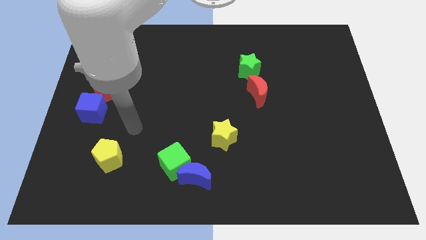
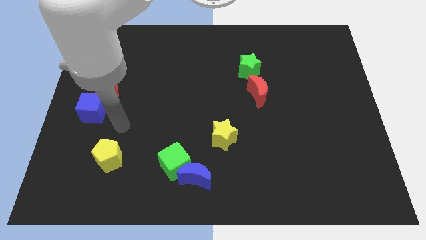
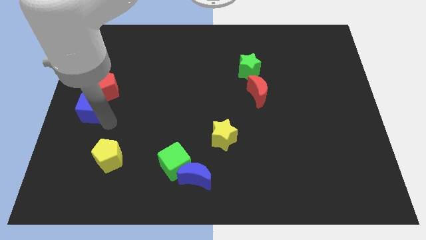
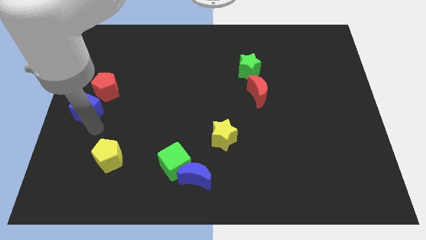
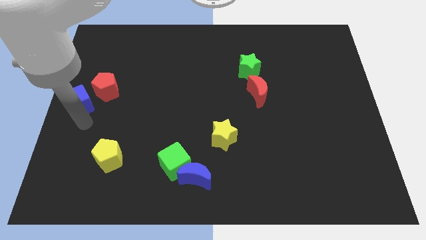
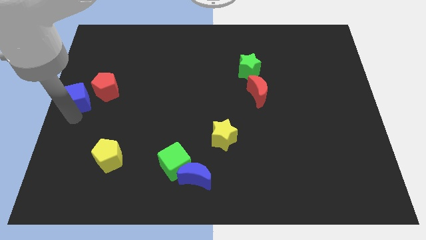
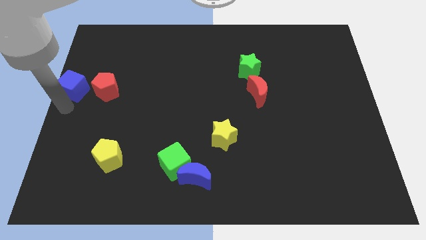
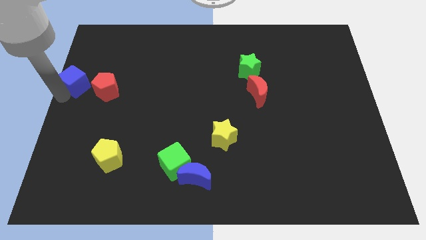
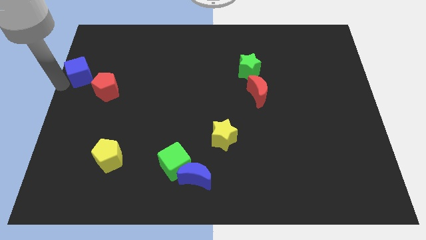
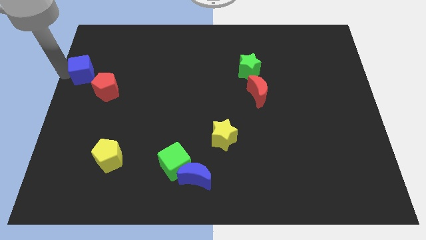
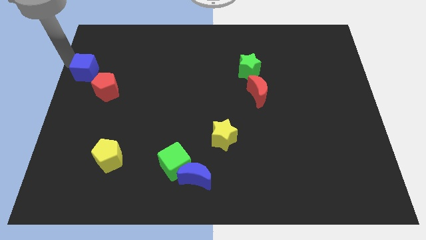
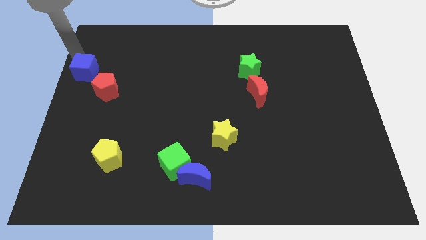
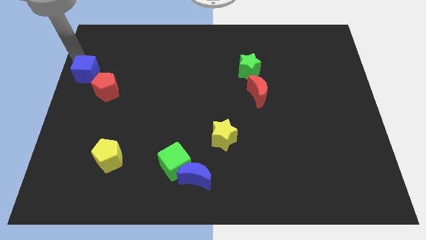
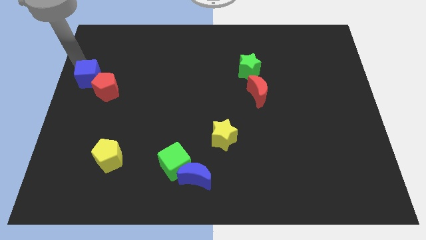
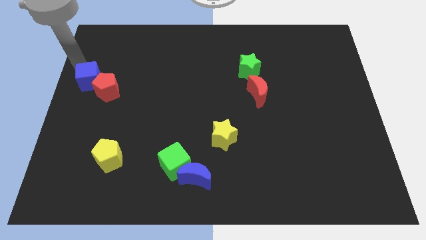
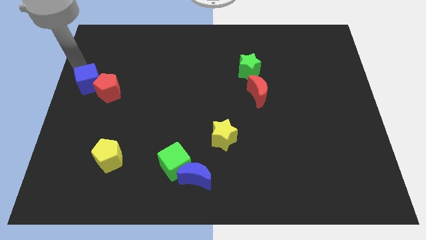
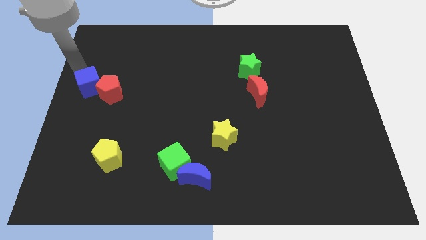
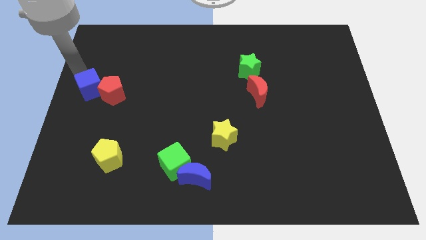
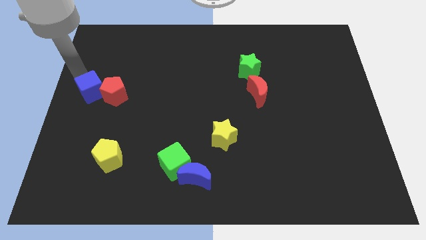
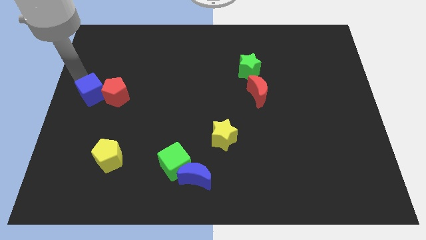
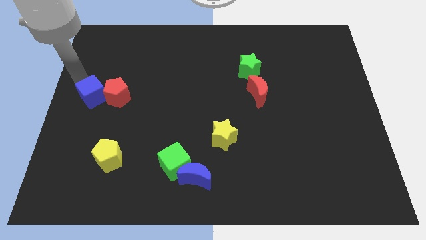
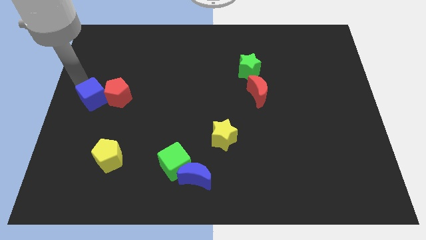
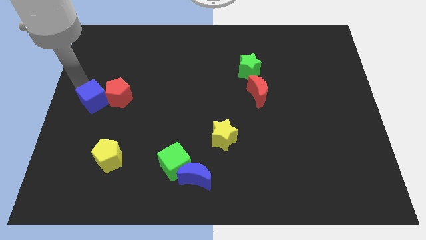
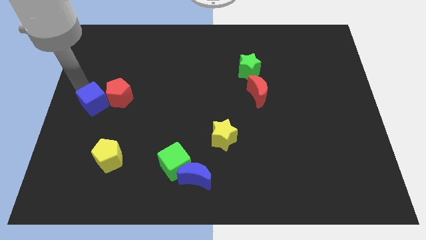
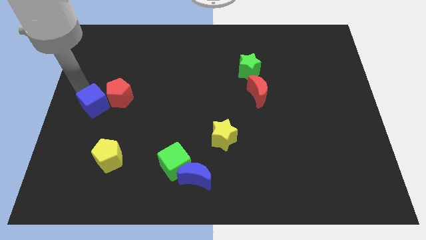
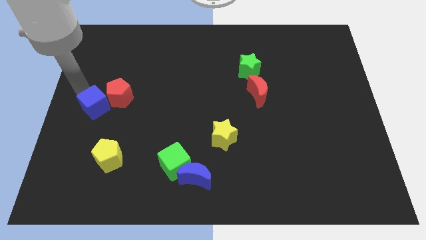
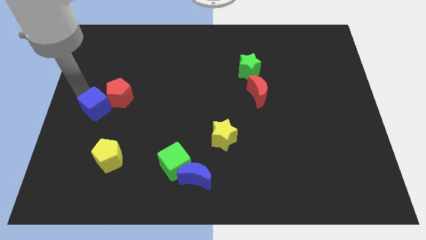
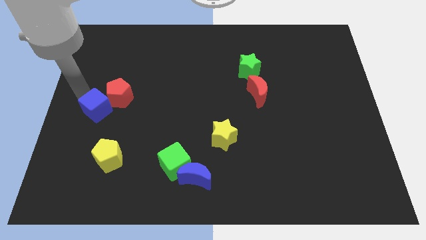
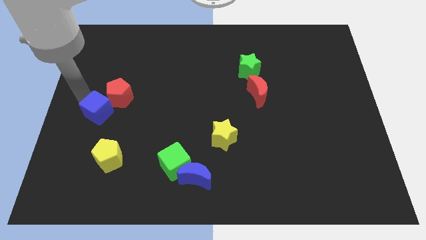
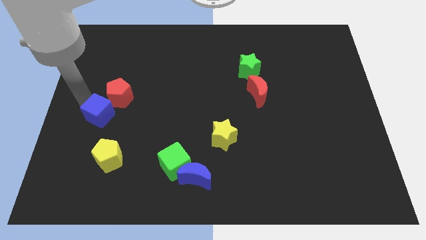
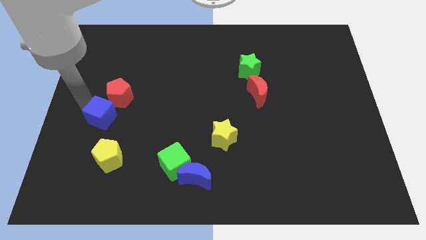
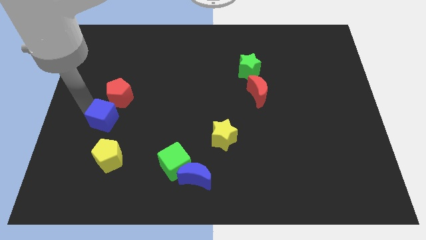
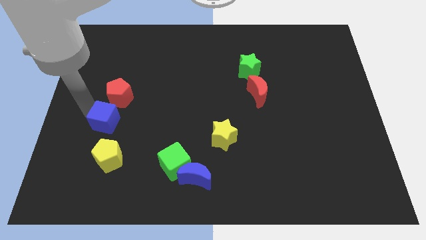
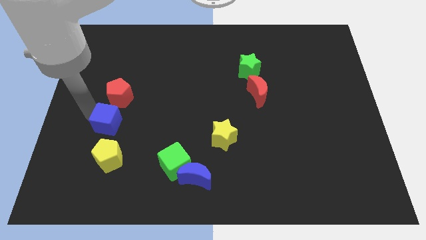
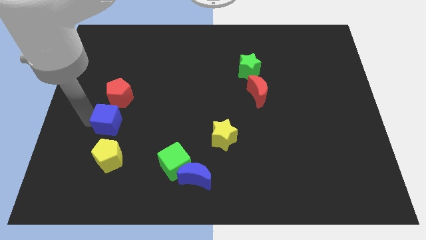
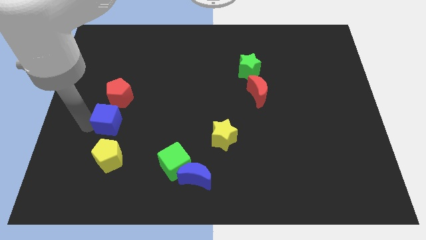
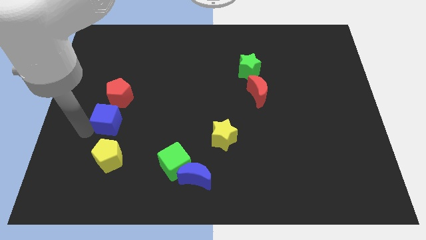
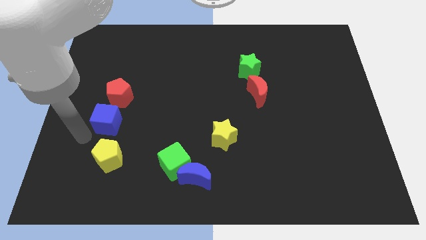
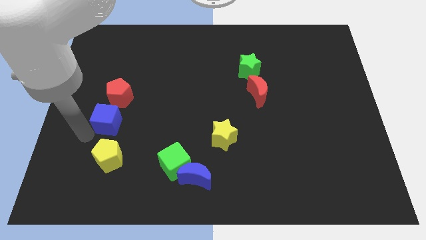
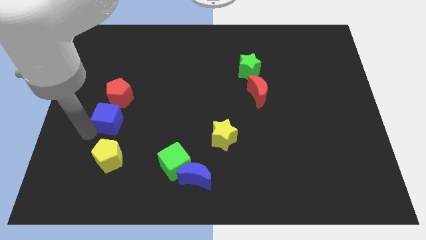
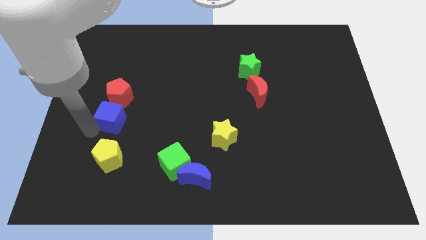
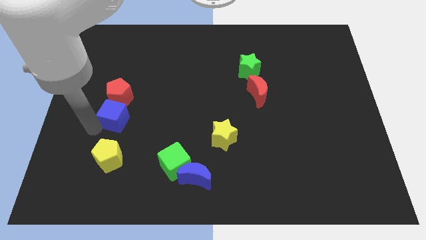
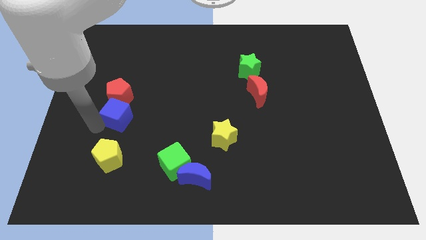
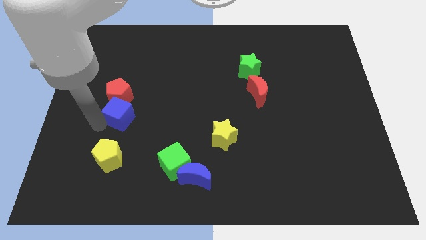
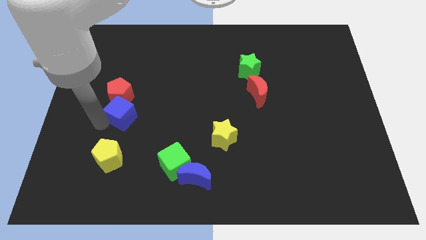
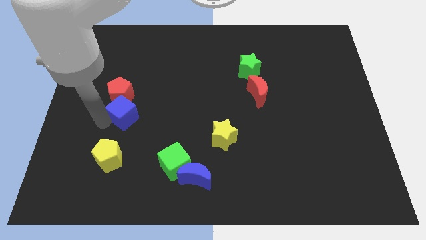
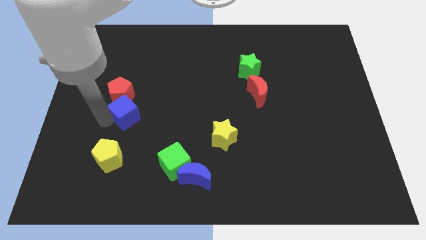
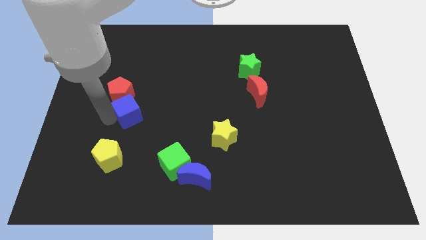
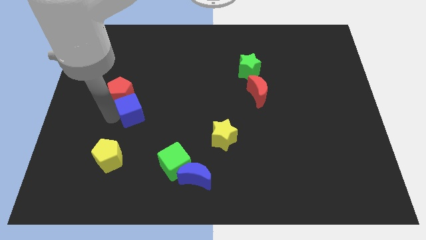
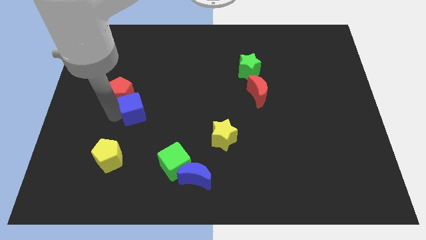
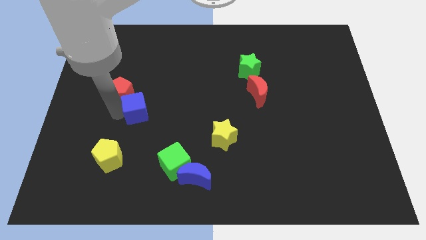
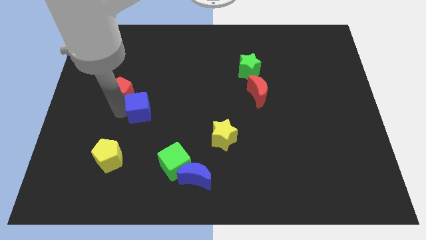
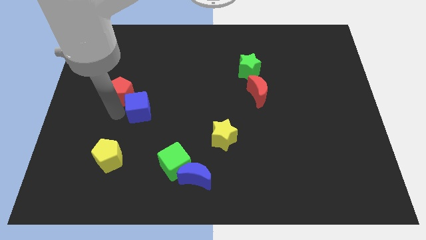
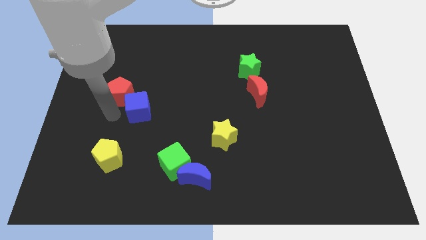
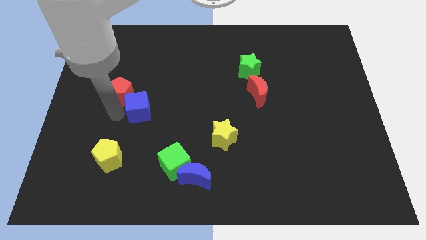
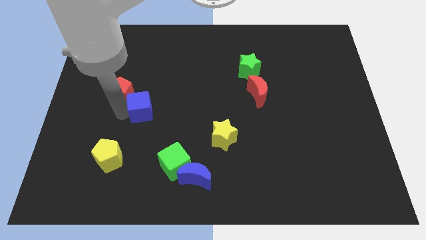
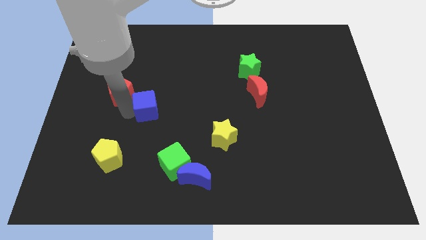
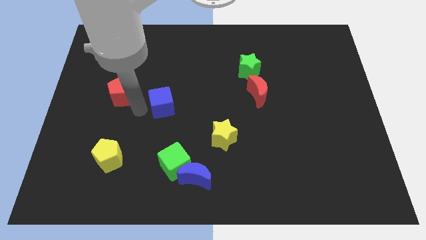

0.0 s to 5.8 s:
slide the blue cube to the middle
